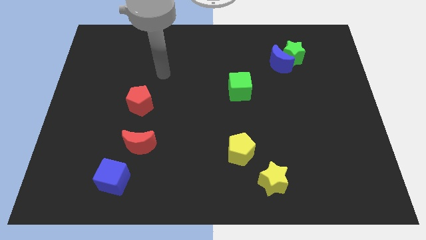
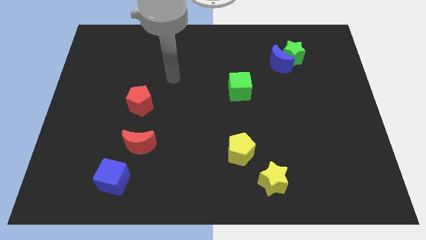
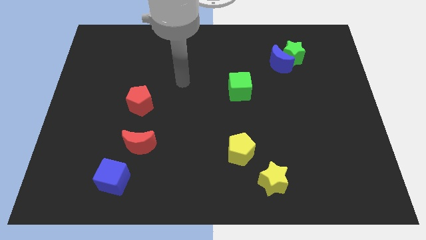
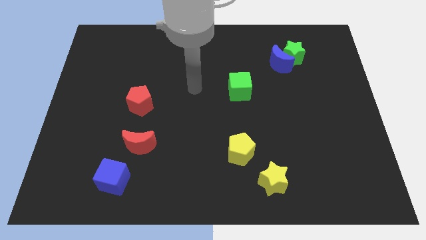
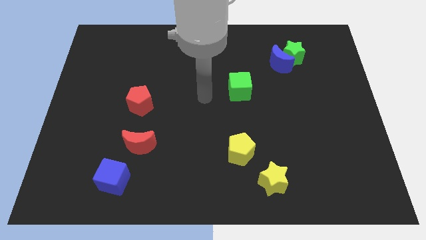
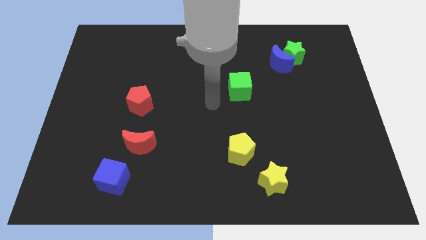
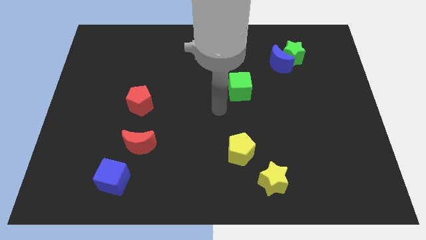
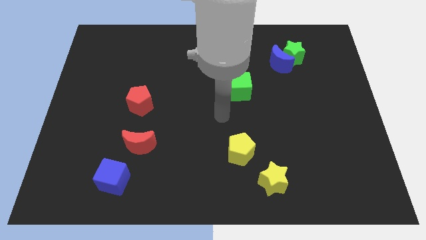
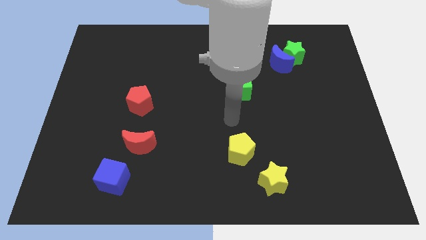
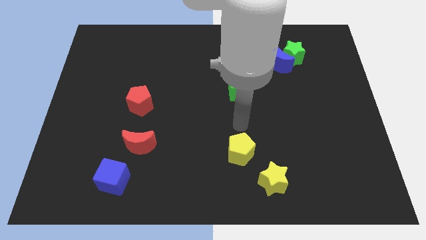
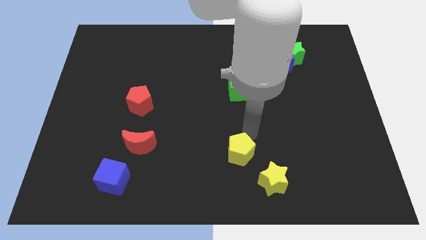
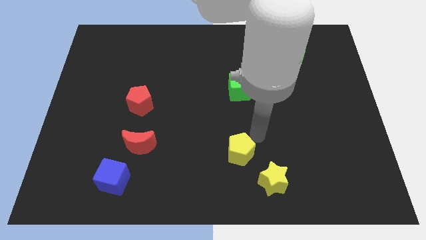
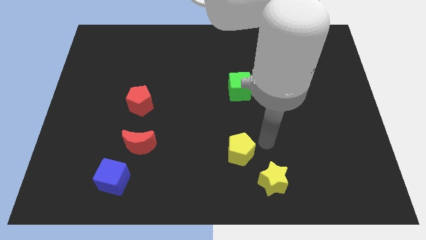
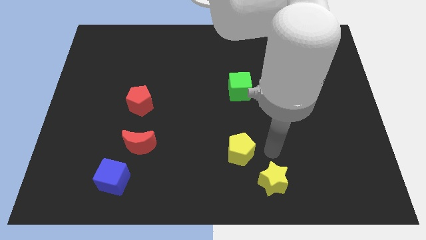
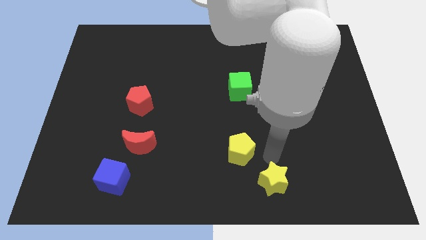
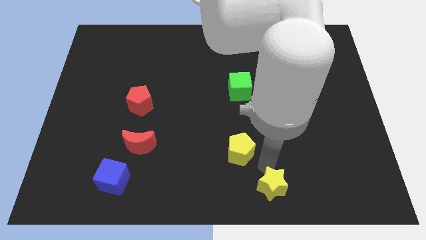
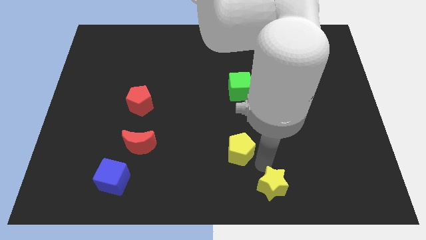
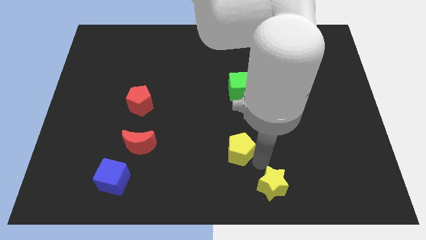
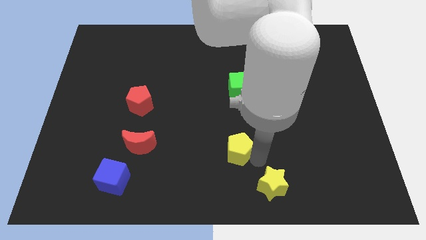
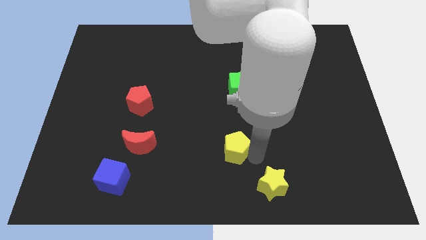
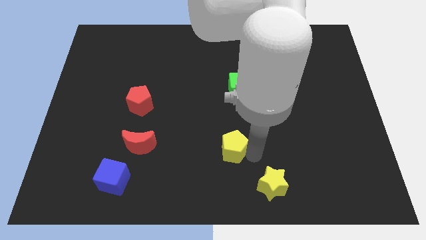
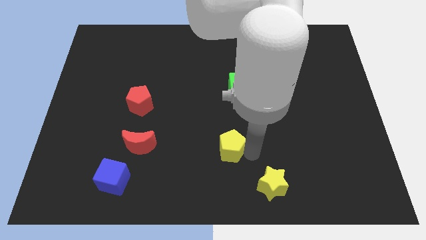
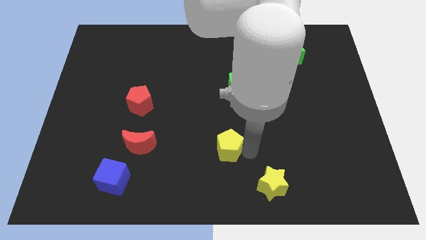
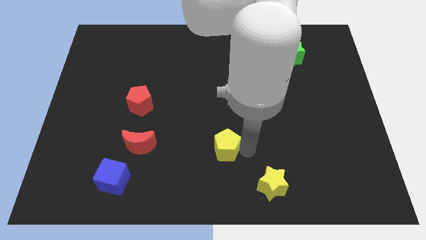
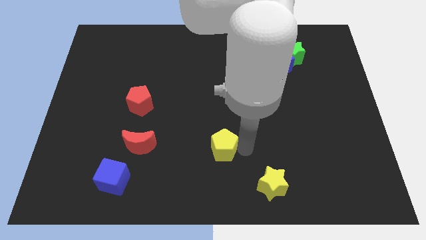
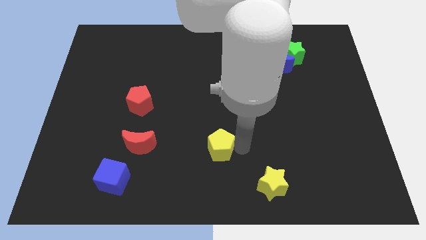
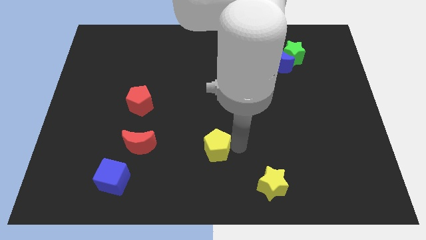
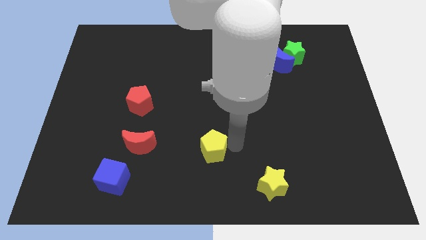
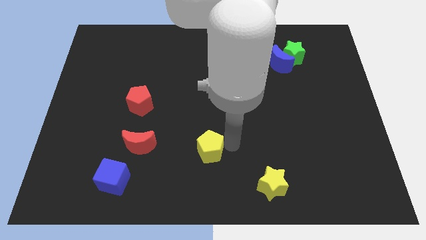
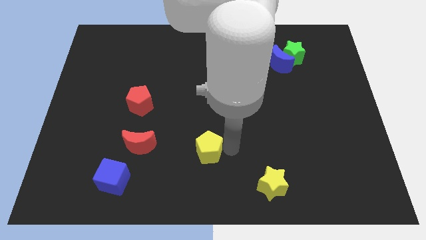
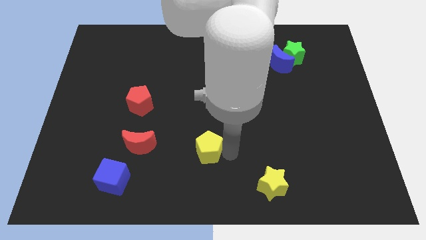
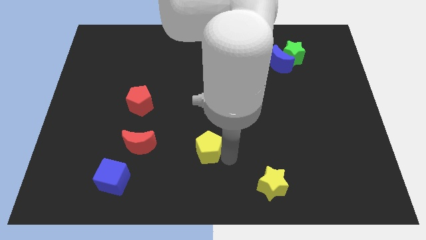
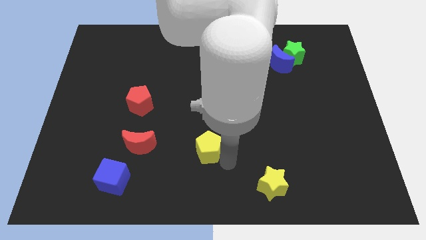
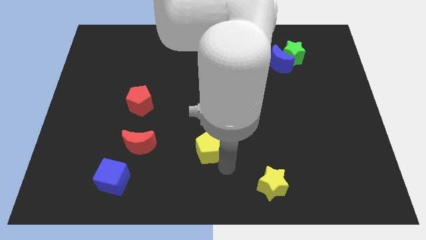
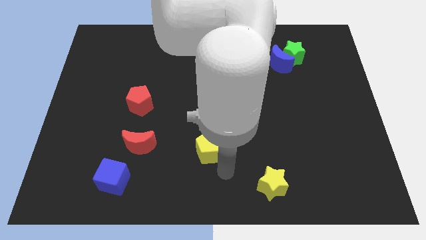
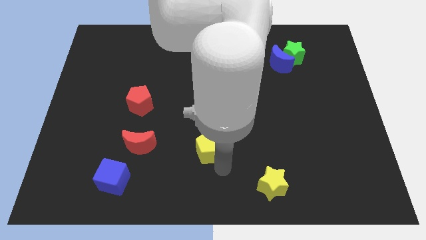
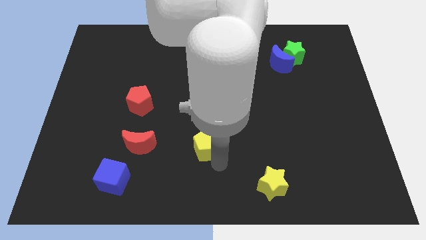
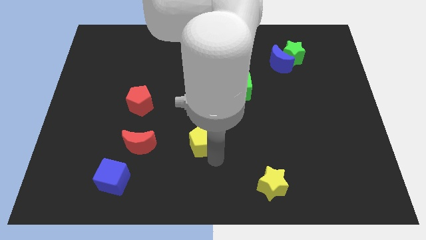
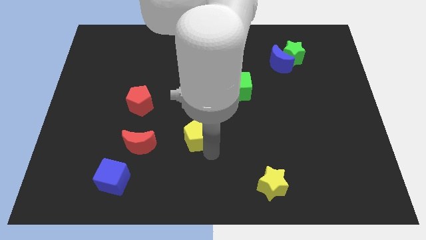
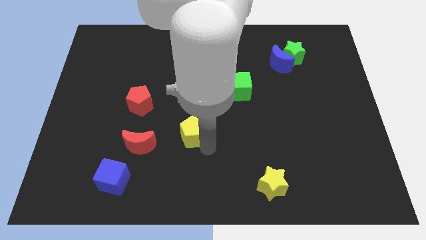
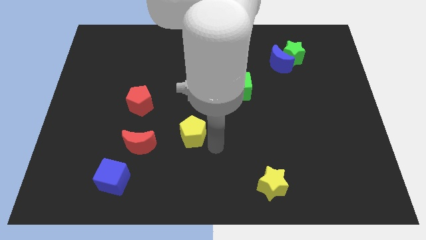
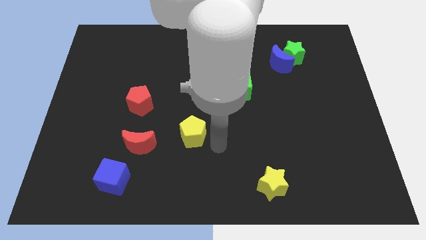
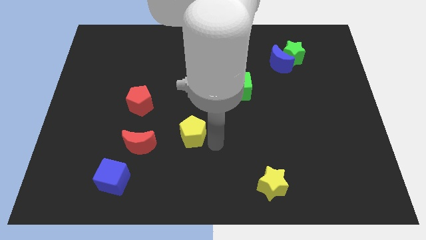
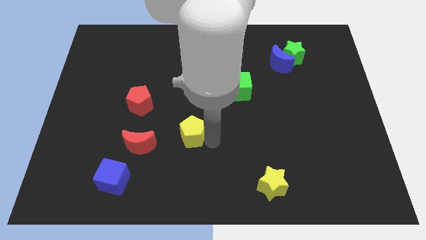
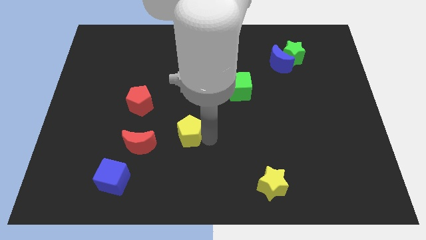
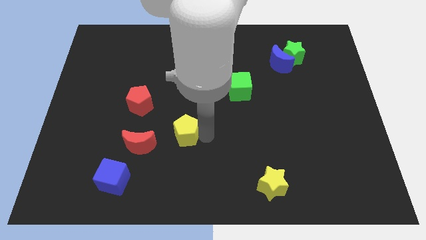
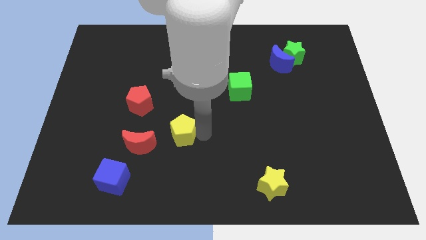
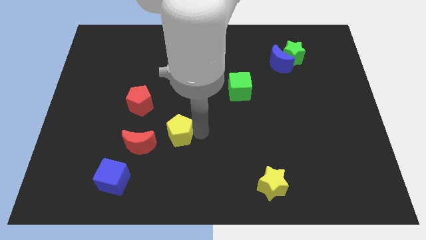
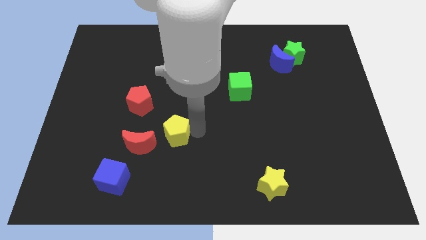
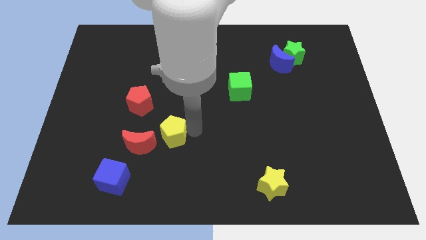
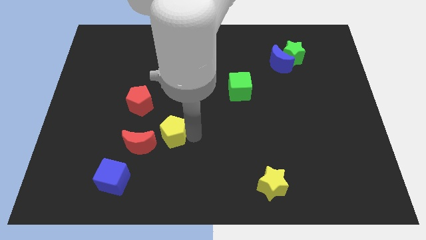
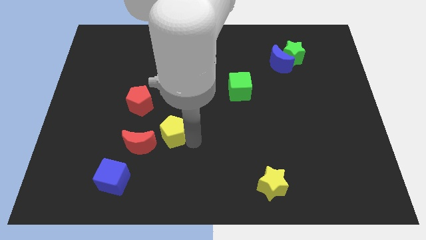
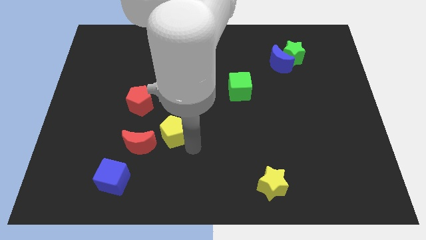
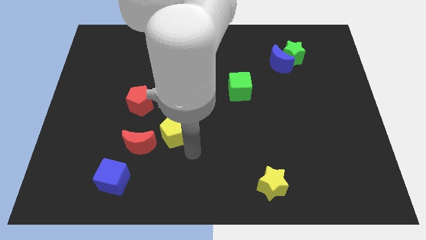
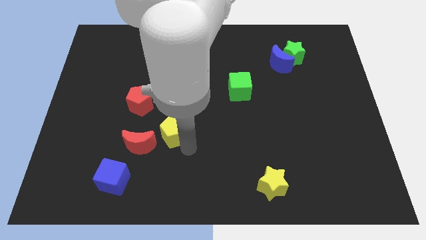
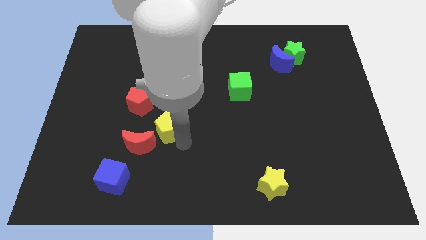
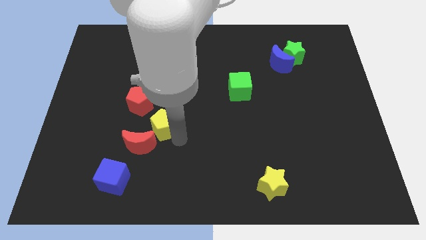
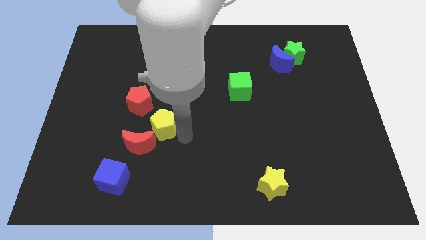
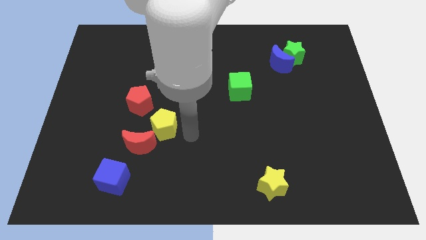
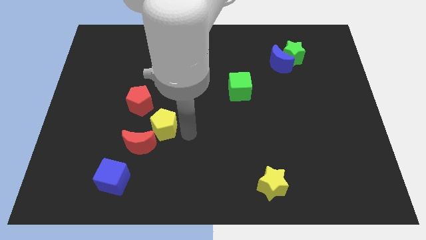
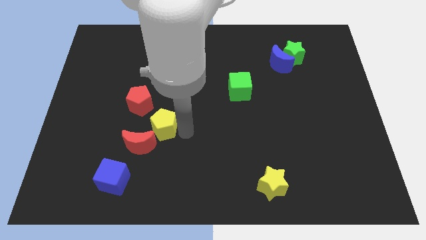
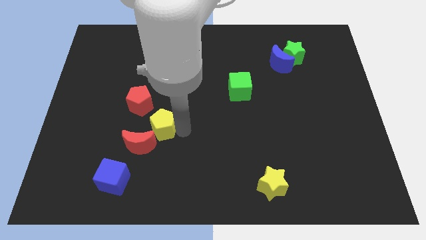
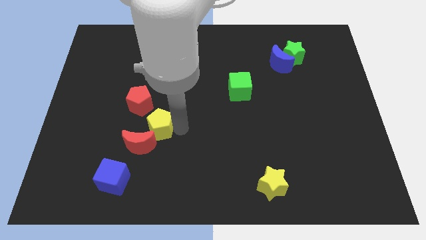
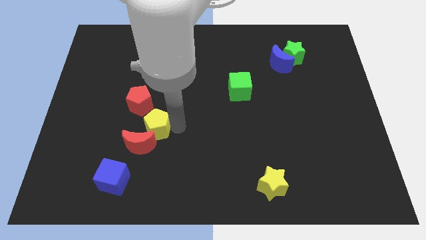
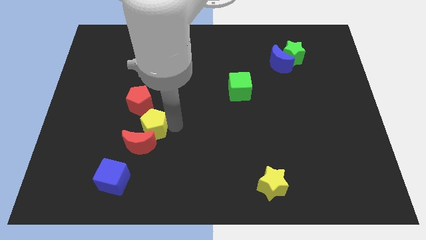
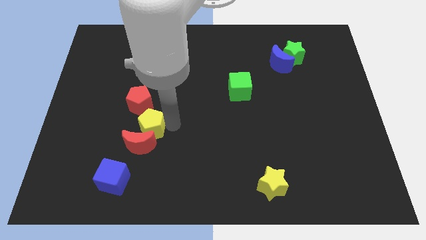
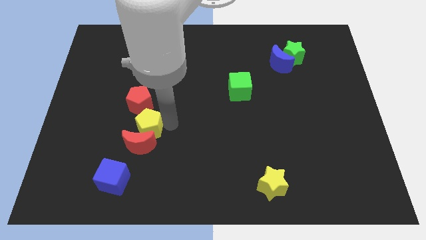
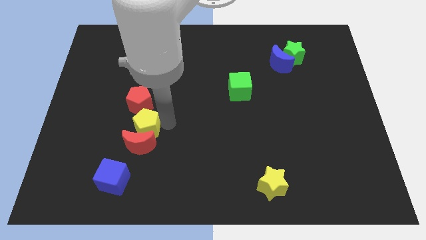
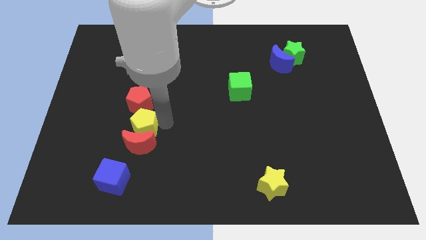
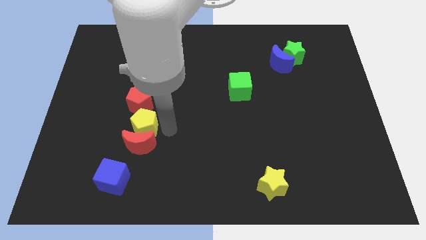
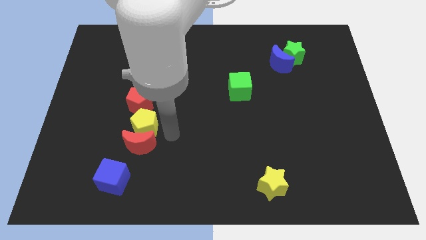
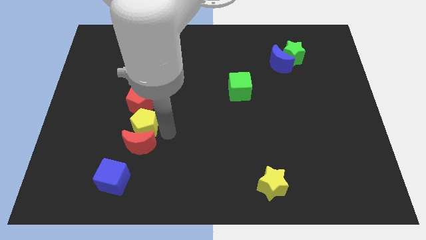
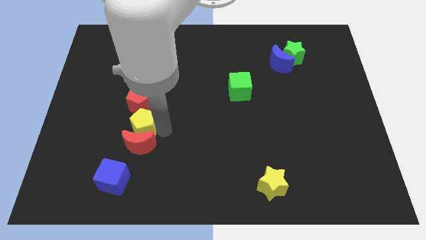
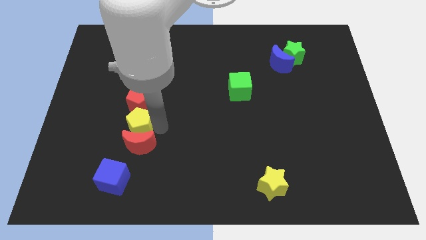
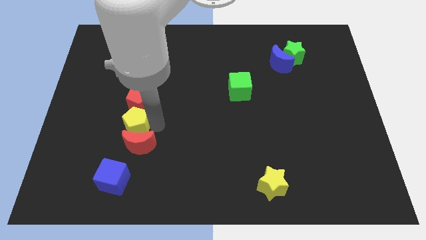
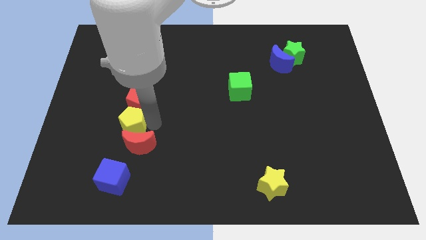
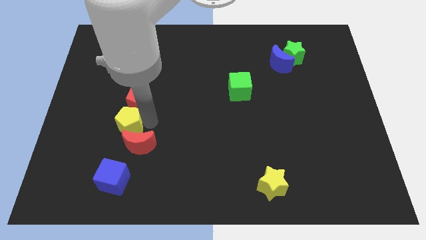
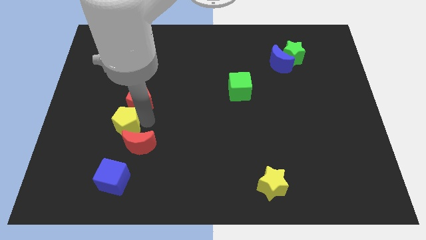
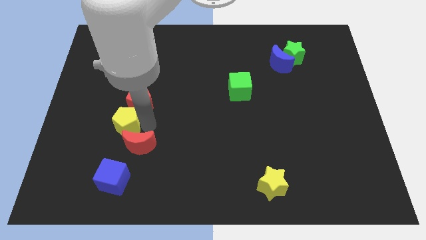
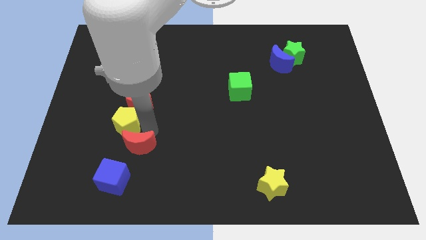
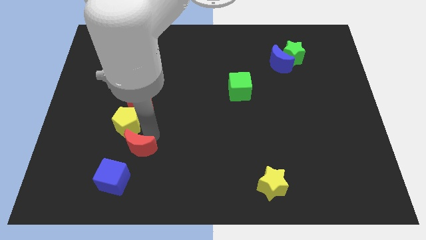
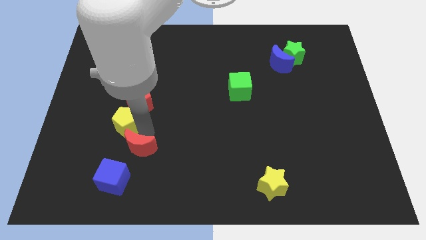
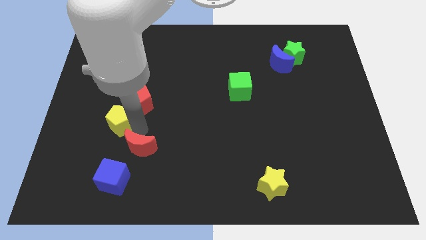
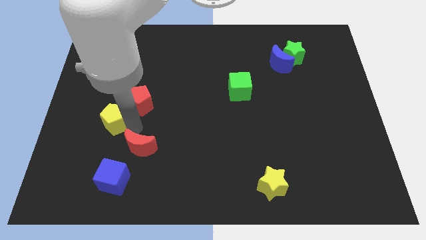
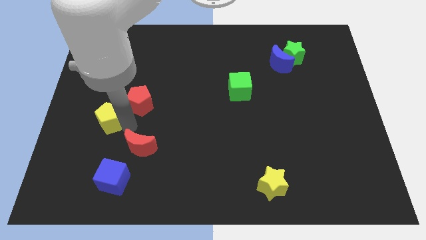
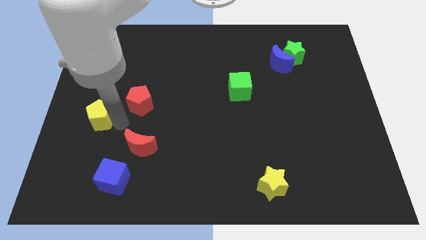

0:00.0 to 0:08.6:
slide the yellow pentagon to the left side of the board
